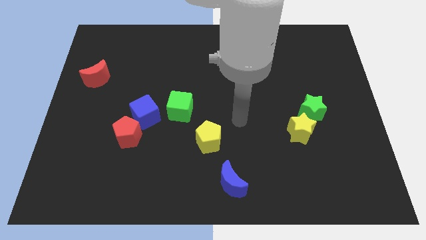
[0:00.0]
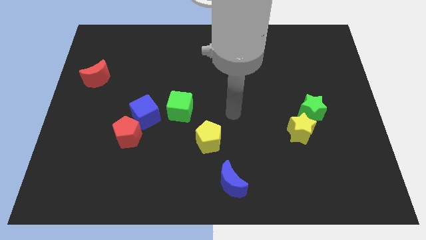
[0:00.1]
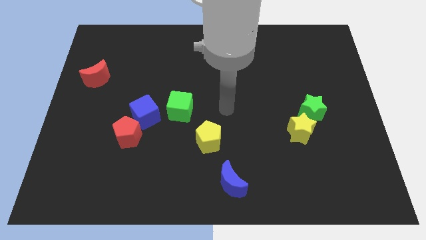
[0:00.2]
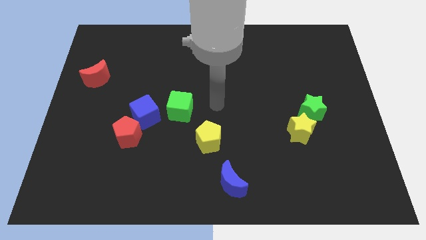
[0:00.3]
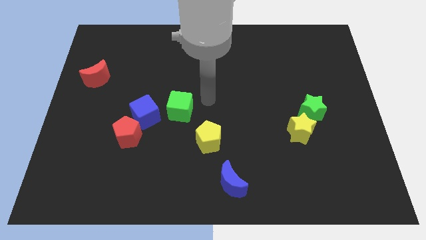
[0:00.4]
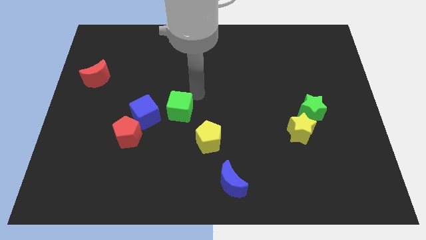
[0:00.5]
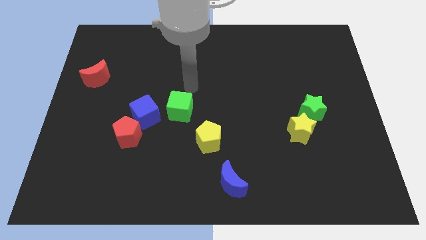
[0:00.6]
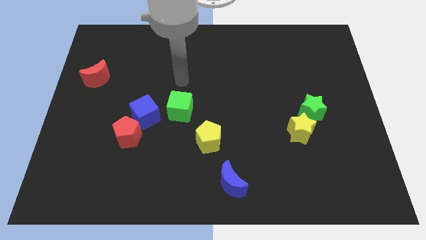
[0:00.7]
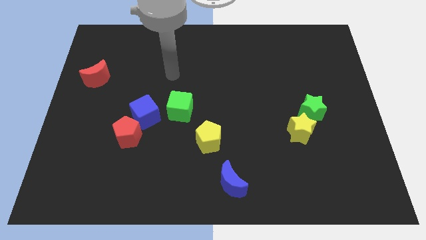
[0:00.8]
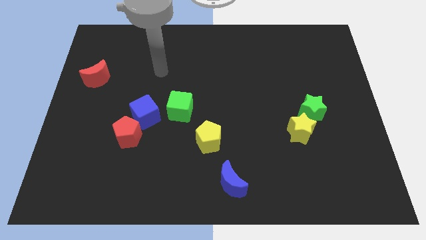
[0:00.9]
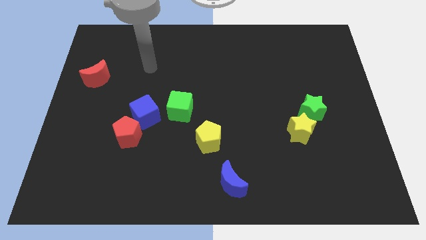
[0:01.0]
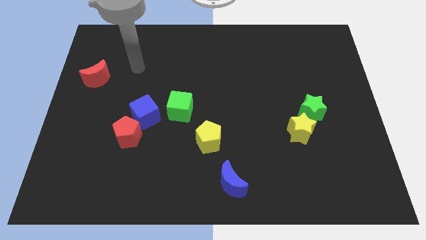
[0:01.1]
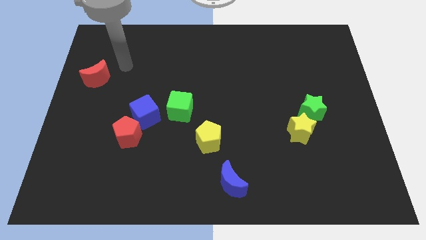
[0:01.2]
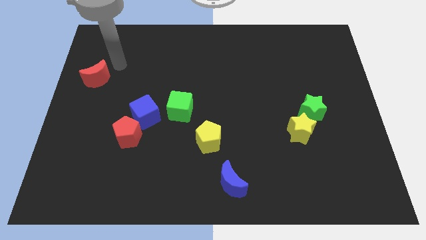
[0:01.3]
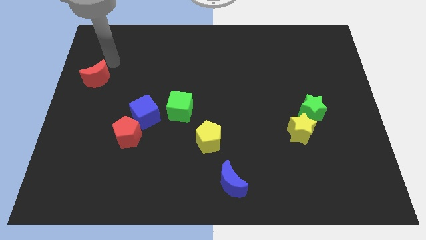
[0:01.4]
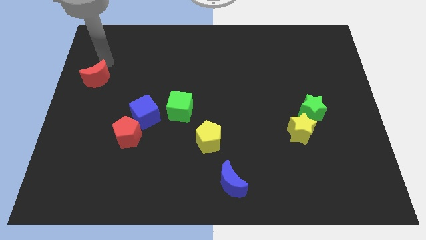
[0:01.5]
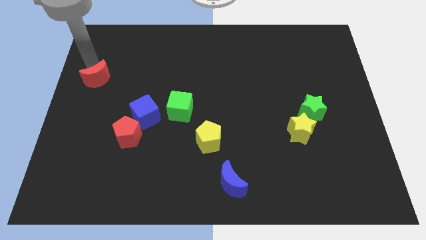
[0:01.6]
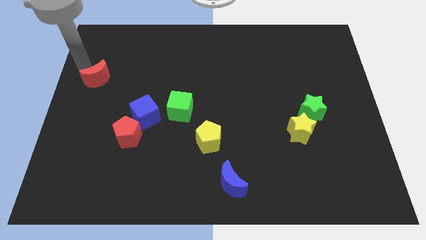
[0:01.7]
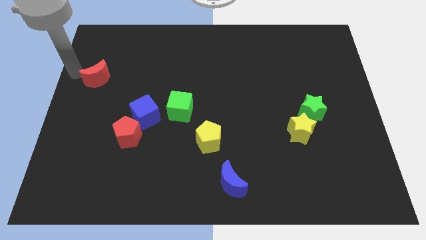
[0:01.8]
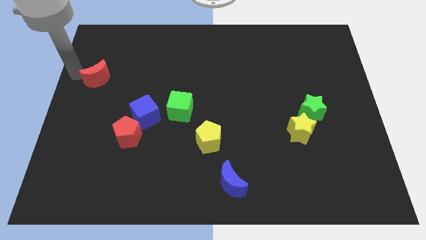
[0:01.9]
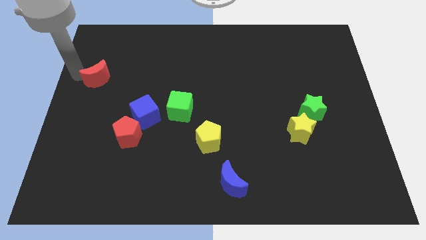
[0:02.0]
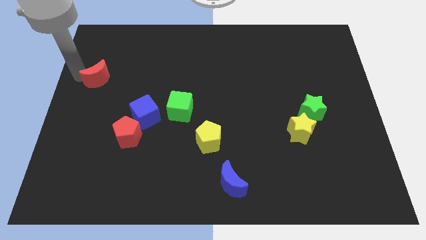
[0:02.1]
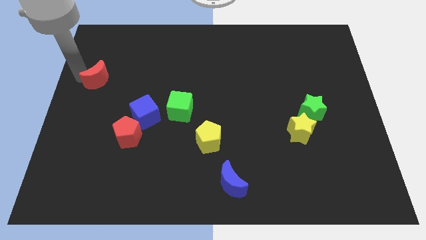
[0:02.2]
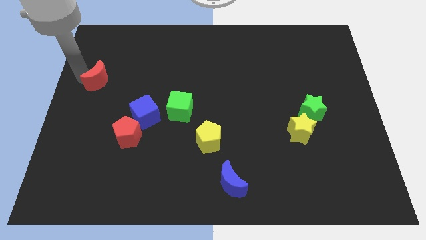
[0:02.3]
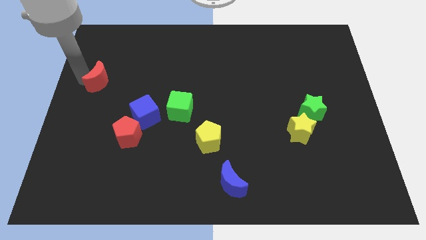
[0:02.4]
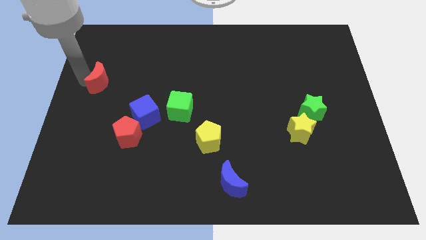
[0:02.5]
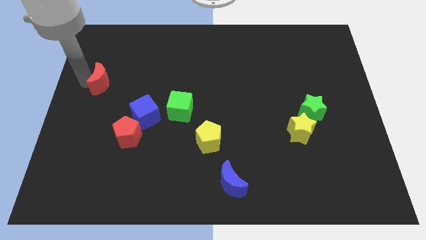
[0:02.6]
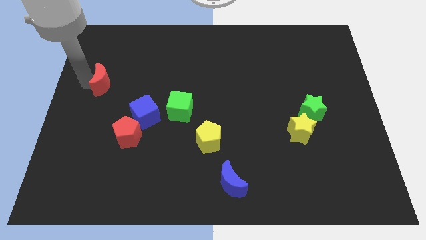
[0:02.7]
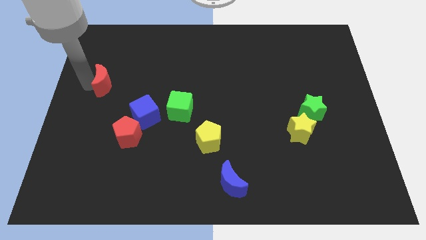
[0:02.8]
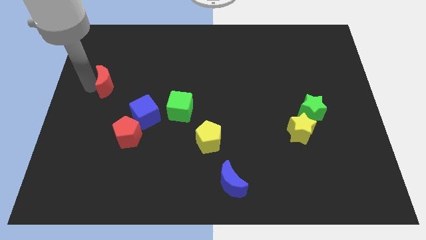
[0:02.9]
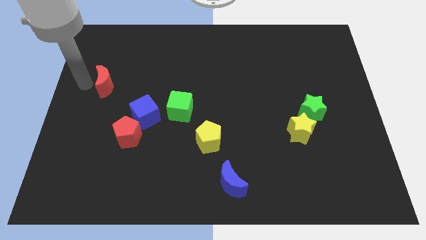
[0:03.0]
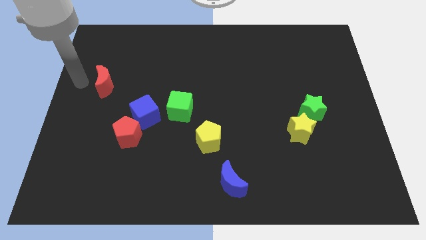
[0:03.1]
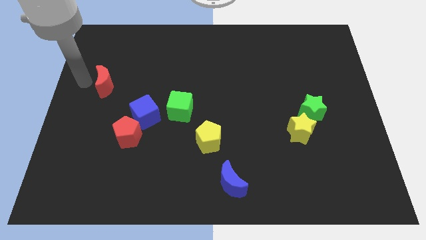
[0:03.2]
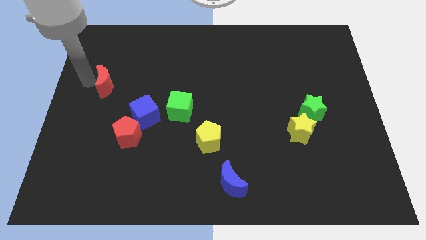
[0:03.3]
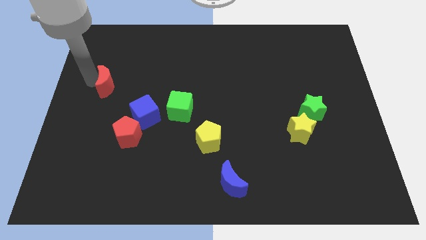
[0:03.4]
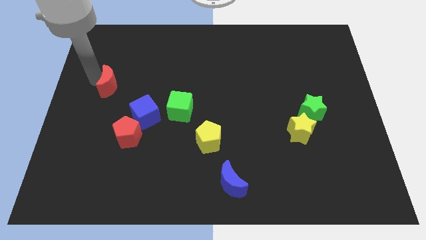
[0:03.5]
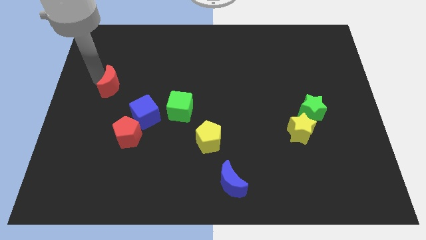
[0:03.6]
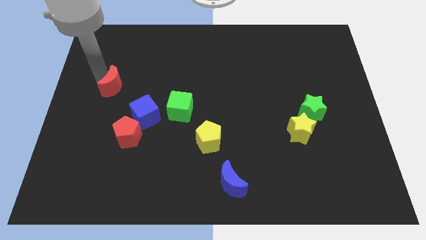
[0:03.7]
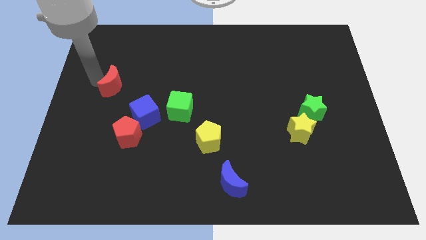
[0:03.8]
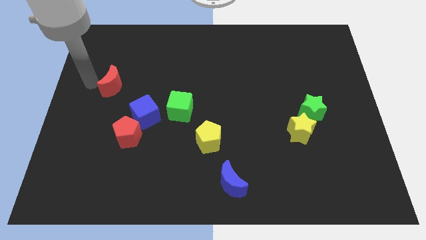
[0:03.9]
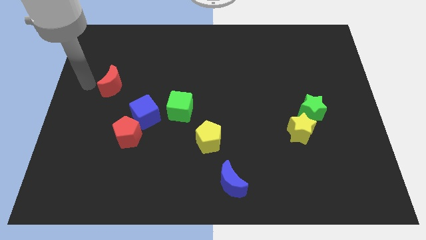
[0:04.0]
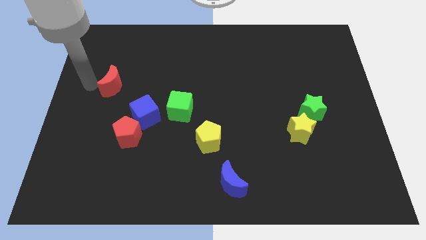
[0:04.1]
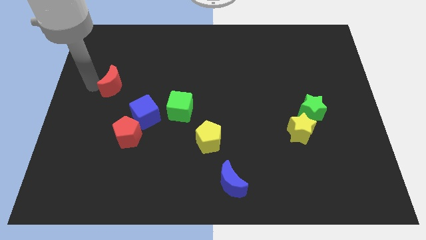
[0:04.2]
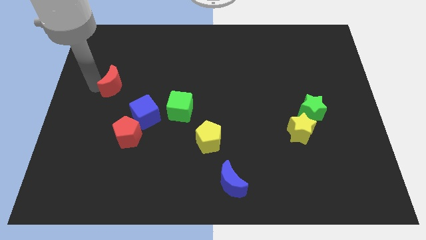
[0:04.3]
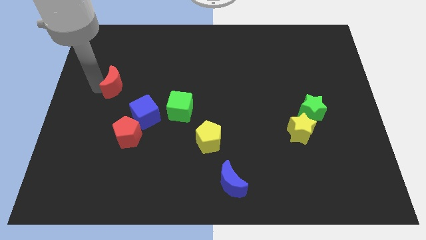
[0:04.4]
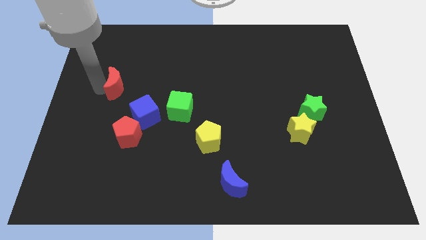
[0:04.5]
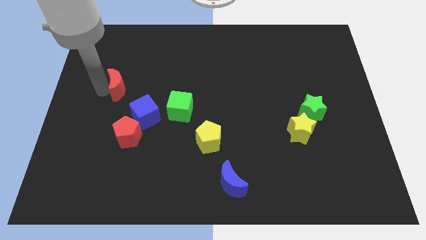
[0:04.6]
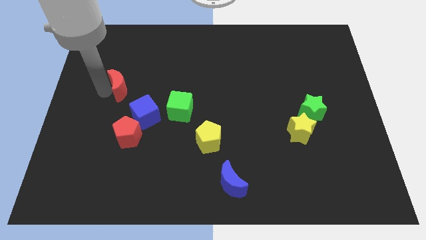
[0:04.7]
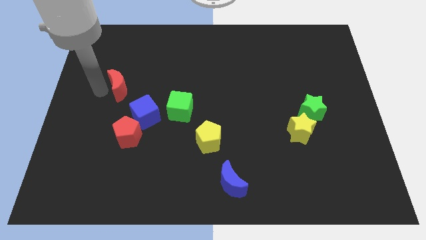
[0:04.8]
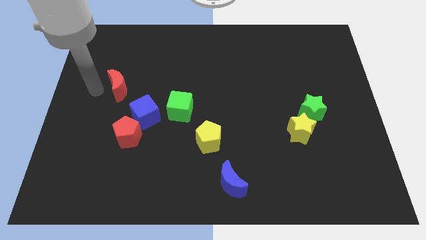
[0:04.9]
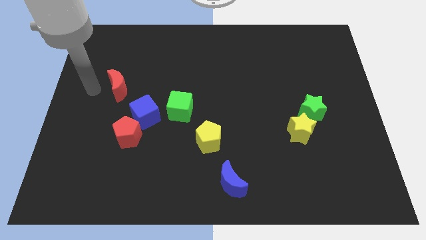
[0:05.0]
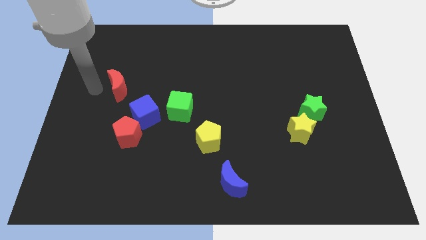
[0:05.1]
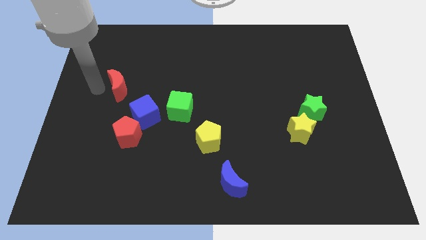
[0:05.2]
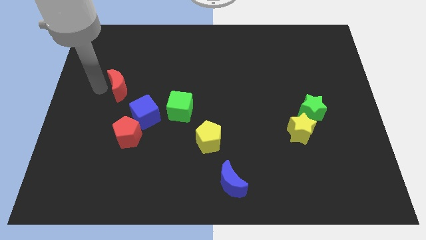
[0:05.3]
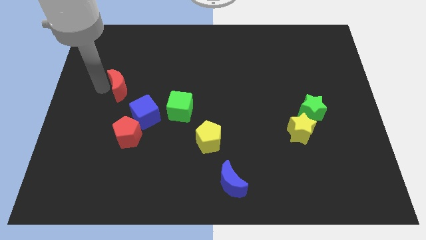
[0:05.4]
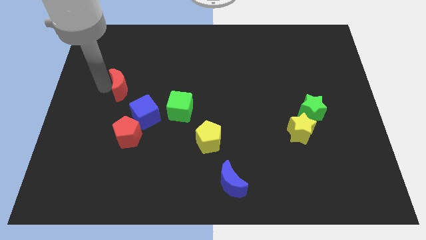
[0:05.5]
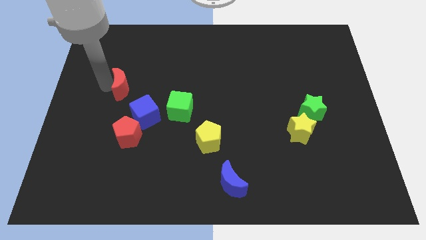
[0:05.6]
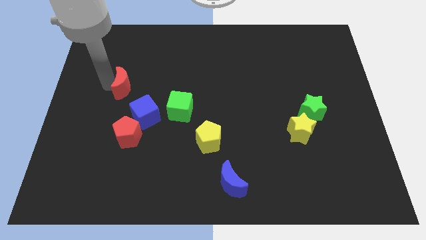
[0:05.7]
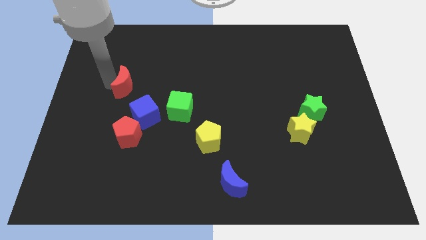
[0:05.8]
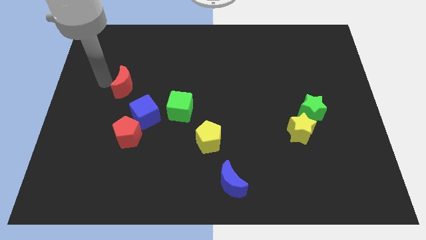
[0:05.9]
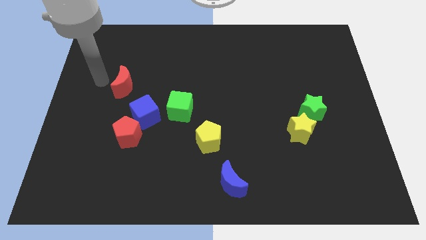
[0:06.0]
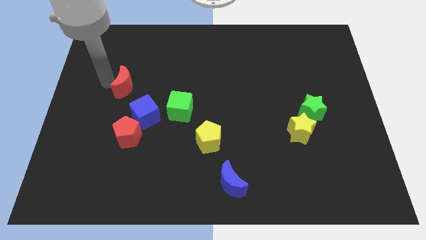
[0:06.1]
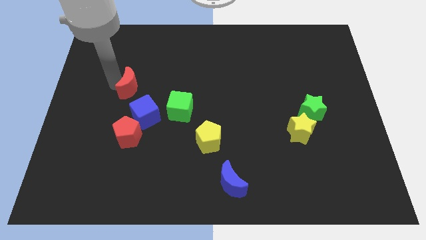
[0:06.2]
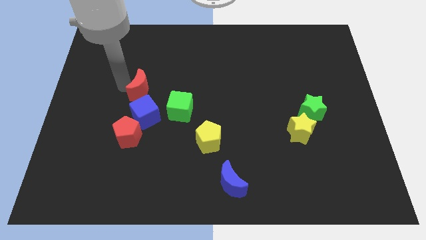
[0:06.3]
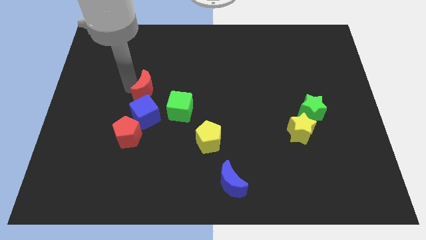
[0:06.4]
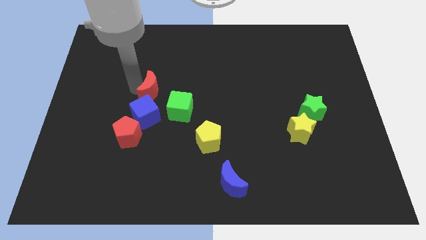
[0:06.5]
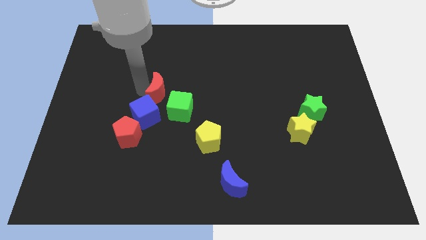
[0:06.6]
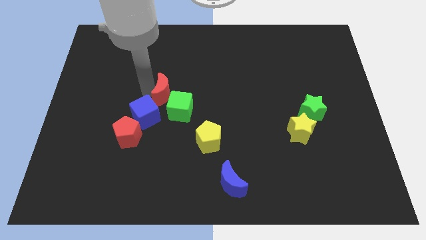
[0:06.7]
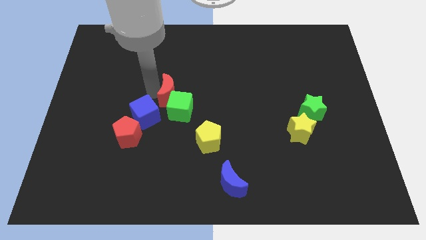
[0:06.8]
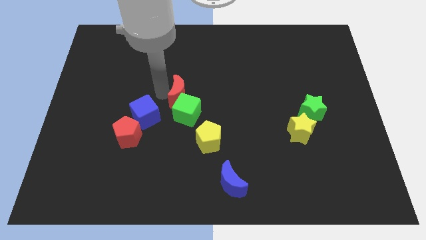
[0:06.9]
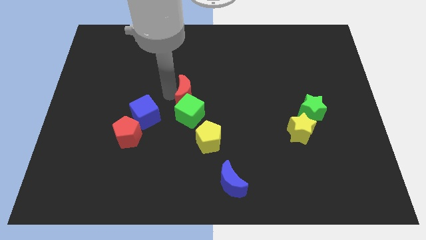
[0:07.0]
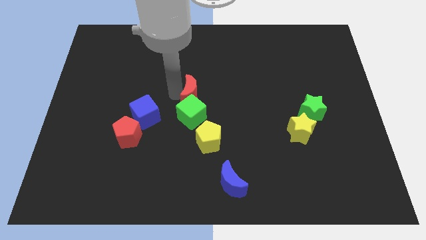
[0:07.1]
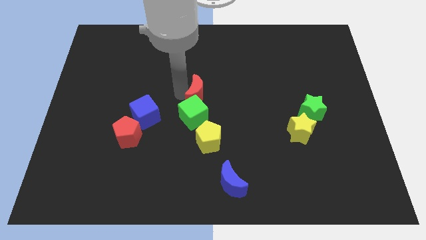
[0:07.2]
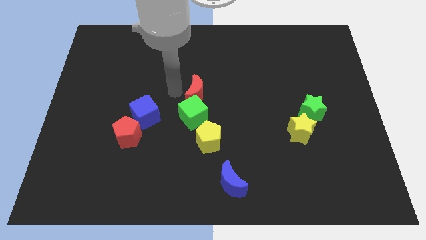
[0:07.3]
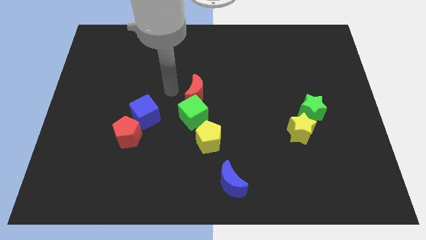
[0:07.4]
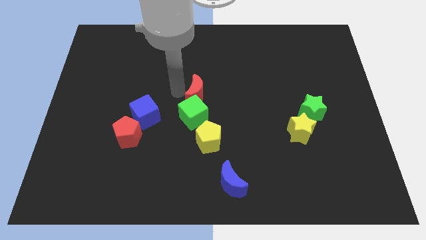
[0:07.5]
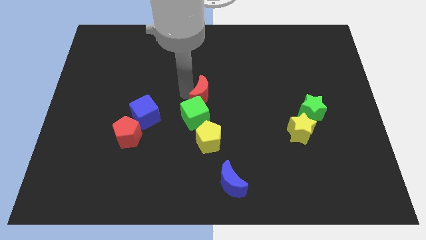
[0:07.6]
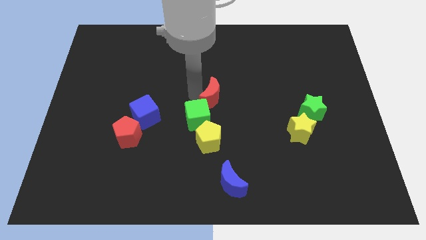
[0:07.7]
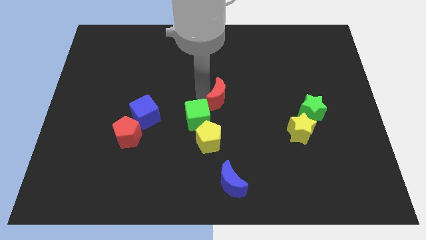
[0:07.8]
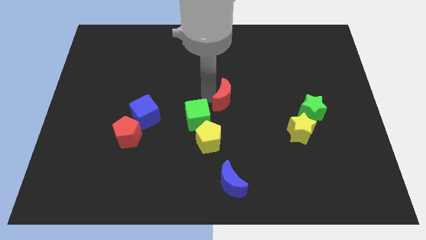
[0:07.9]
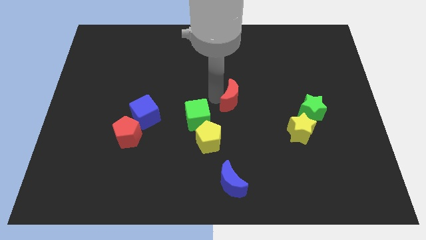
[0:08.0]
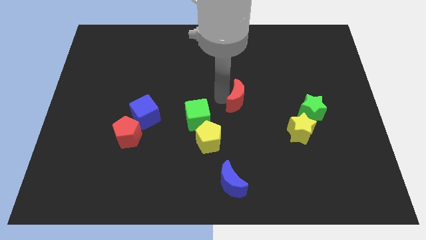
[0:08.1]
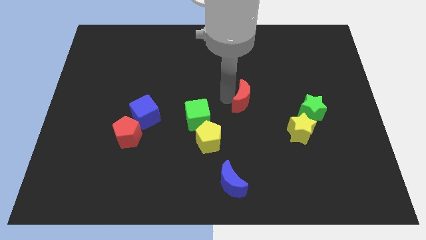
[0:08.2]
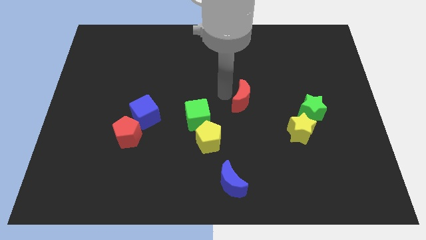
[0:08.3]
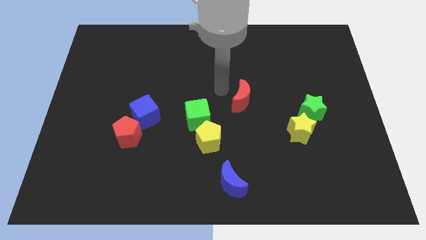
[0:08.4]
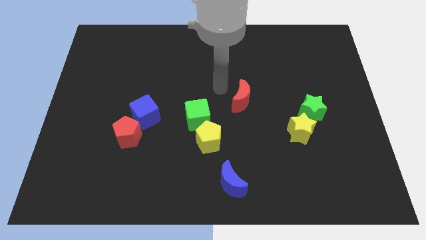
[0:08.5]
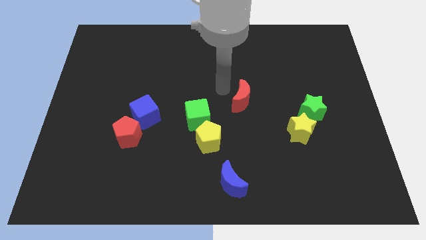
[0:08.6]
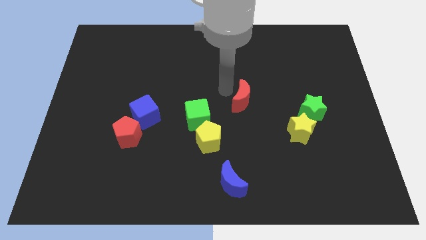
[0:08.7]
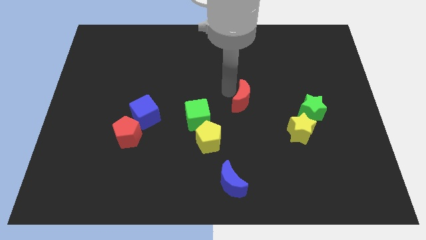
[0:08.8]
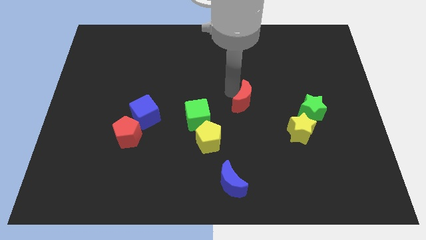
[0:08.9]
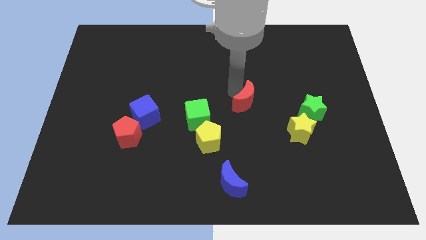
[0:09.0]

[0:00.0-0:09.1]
slide the red moon to the left of the green star
